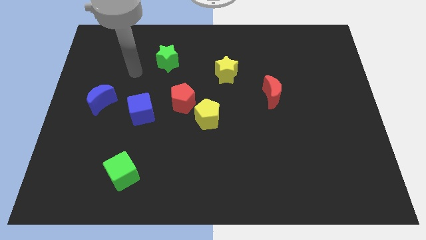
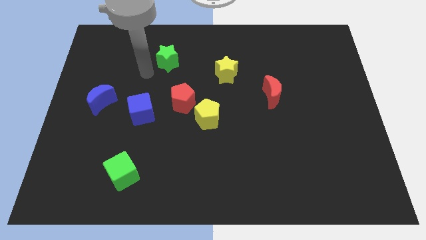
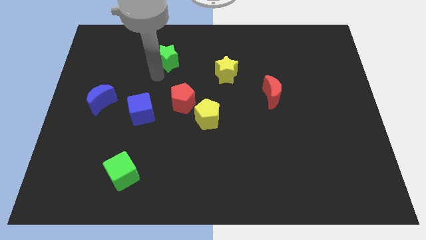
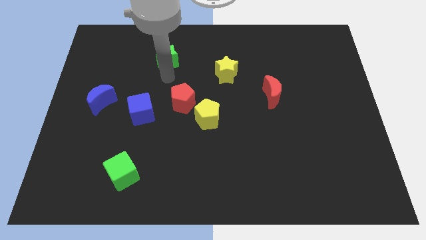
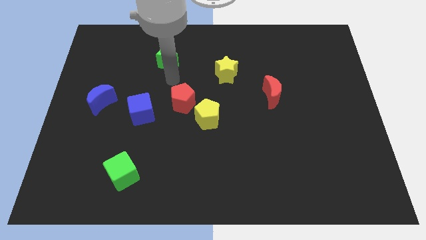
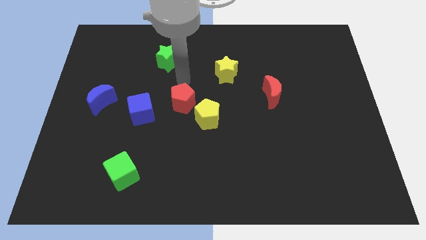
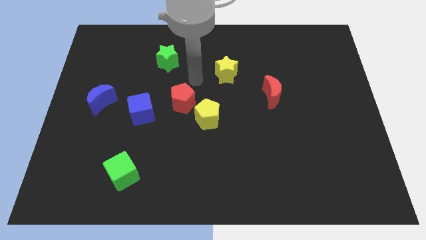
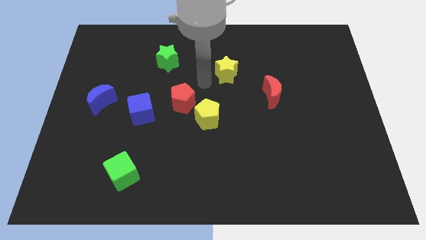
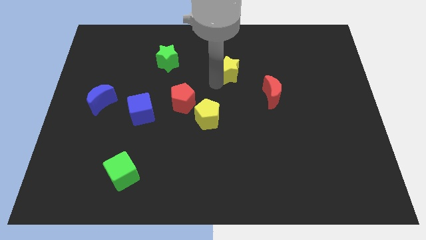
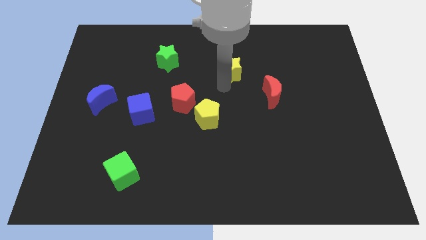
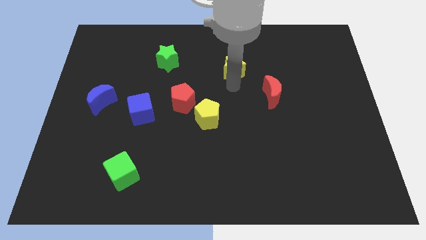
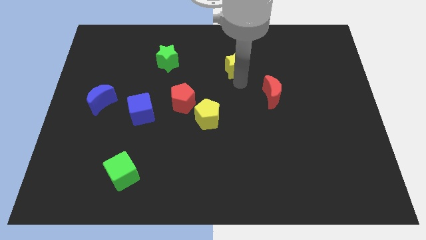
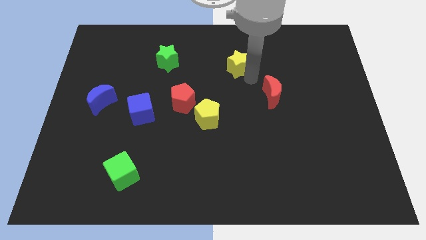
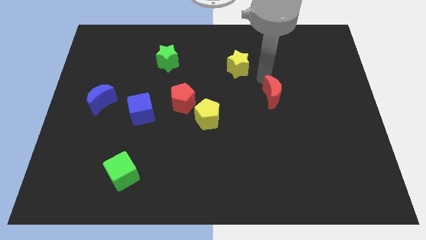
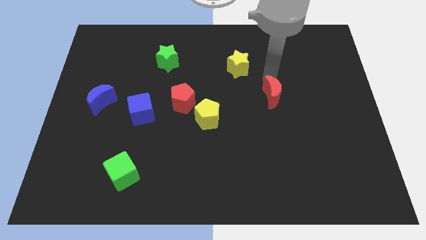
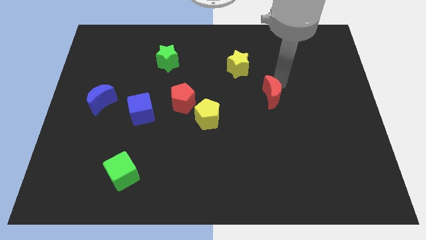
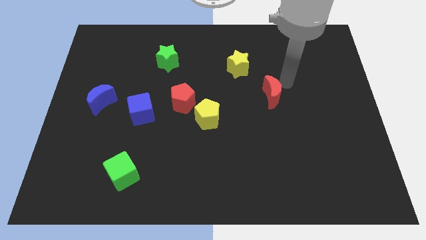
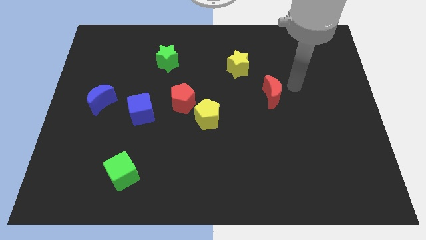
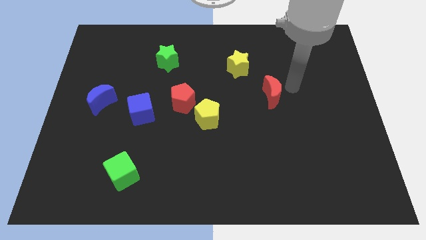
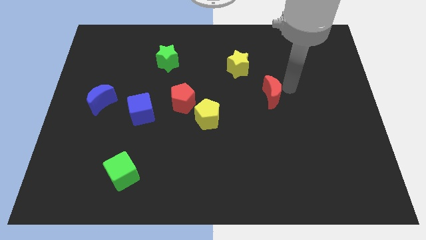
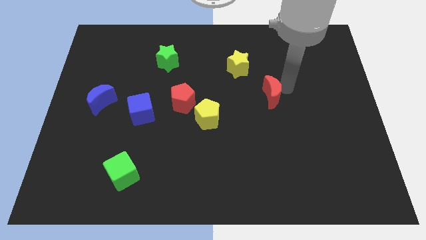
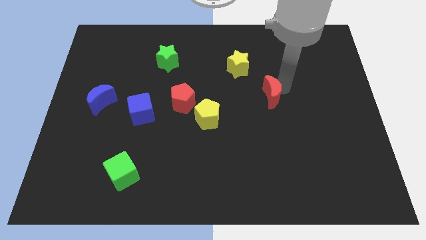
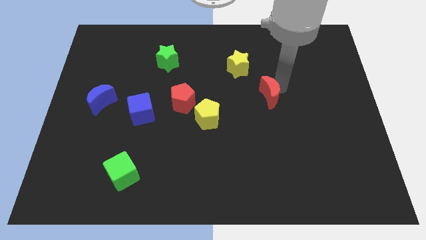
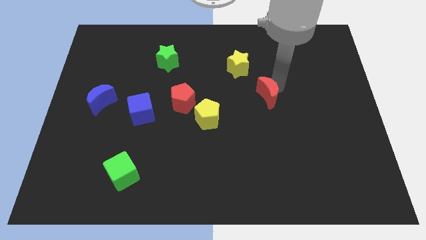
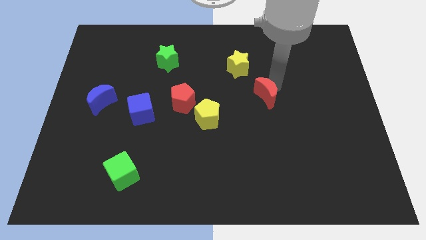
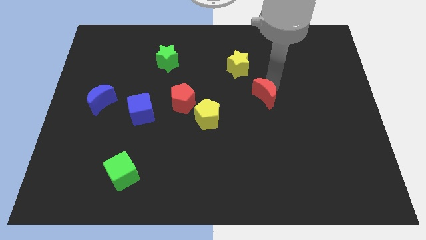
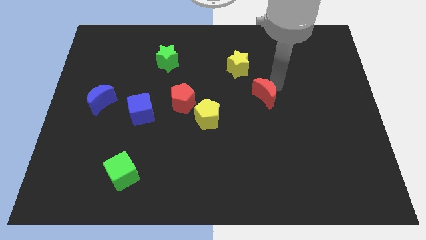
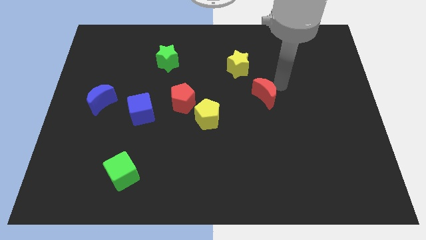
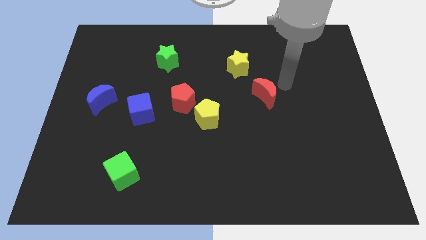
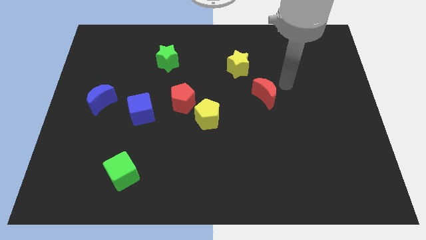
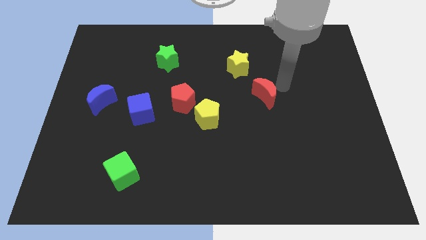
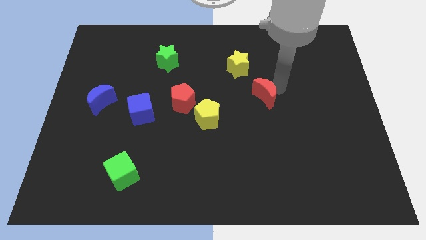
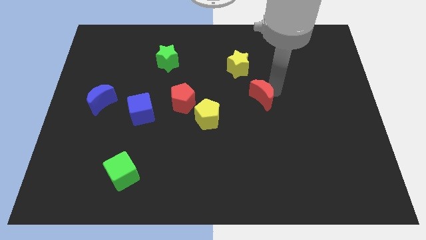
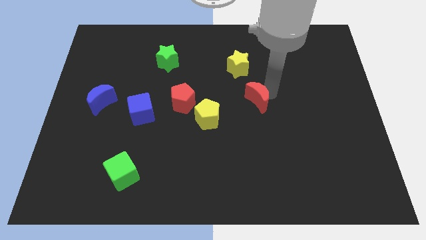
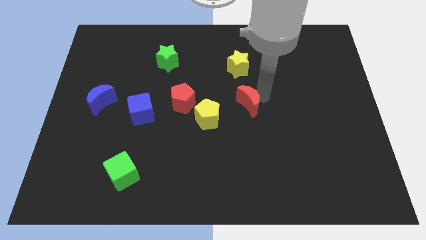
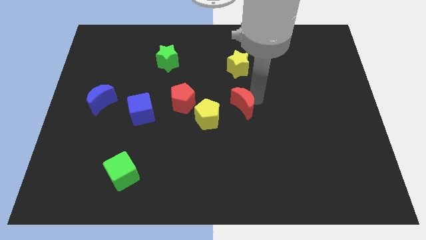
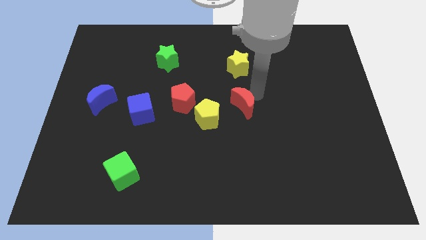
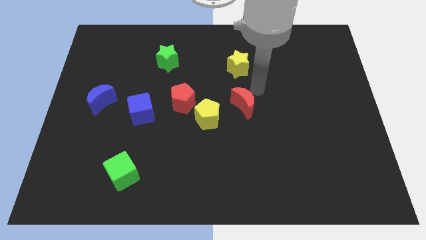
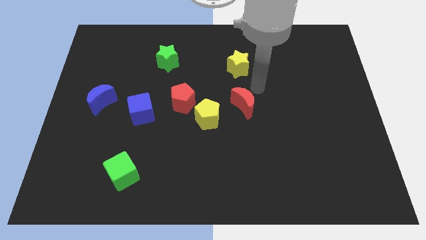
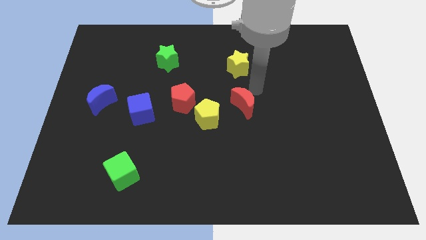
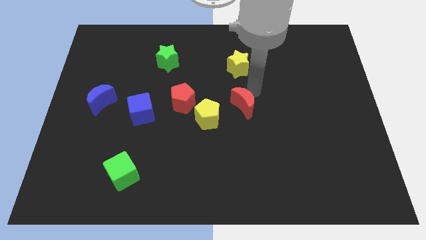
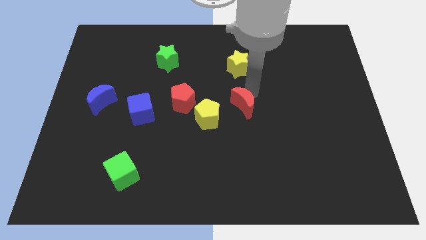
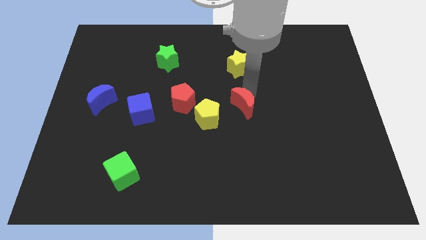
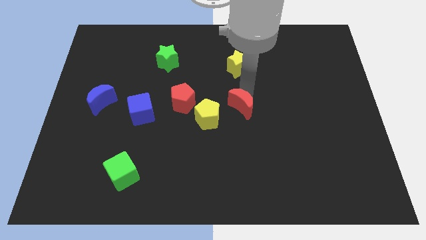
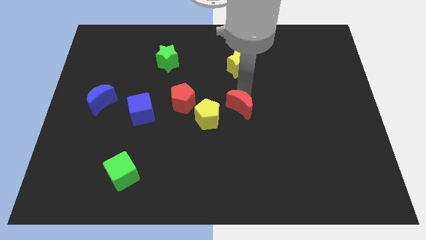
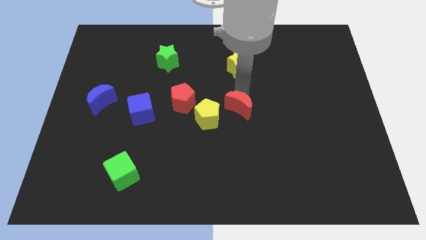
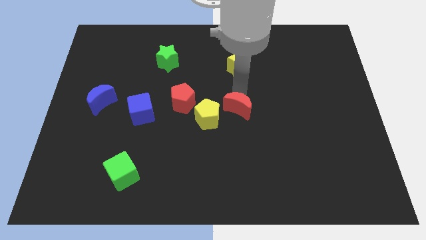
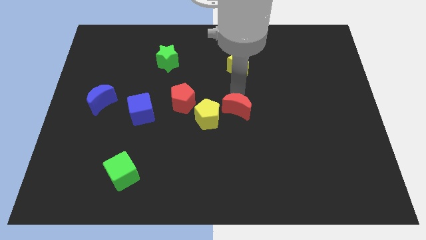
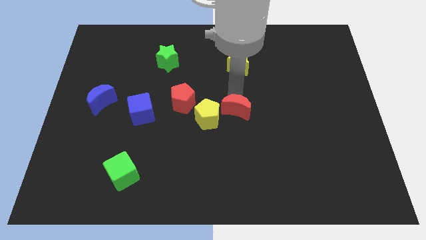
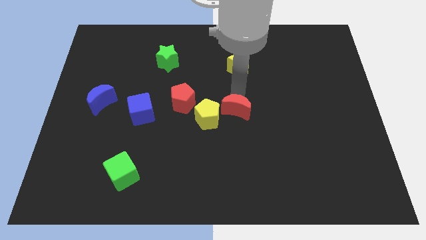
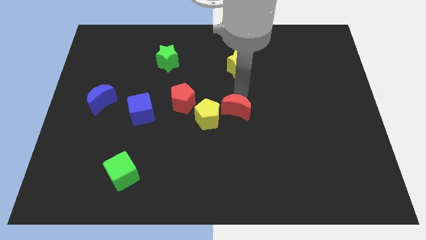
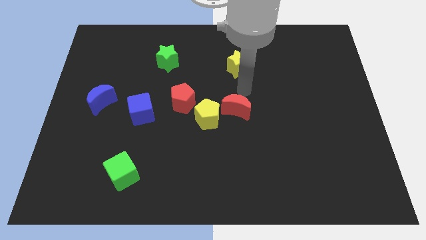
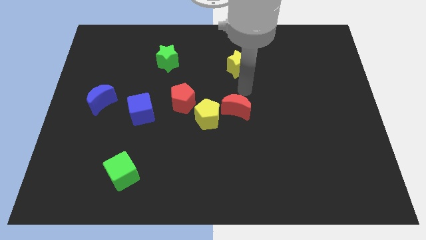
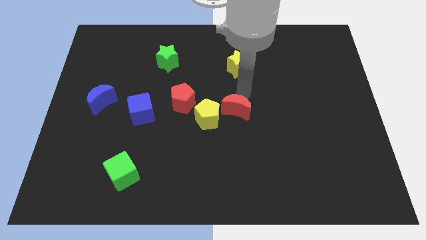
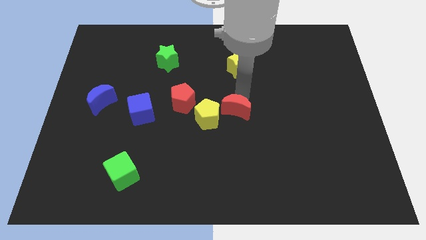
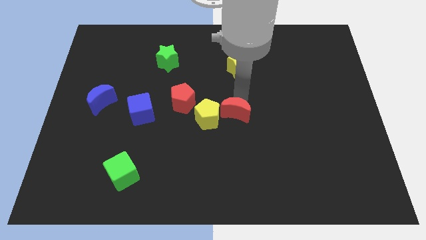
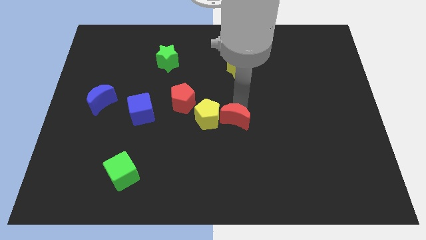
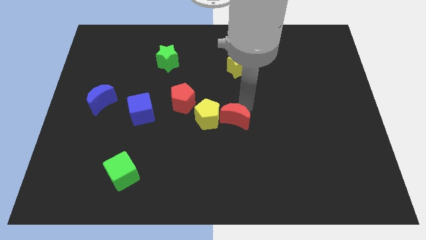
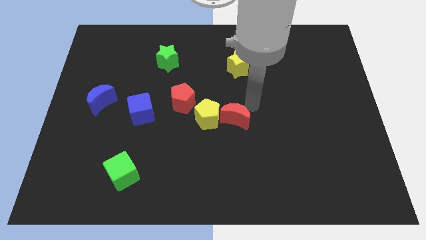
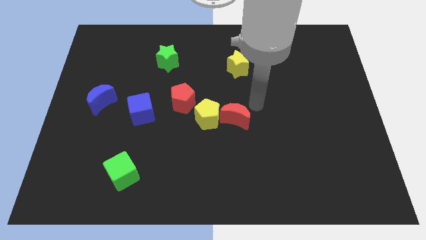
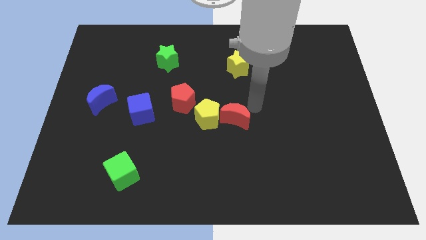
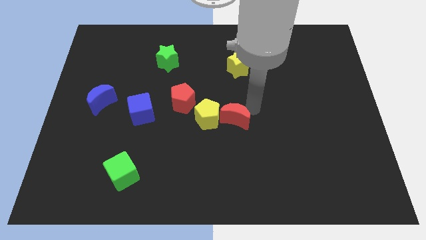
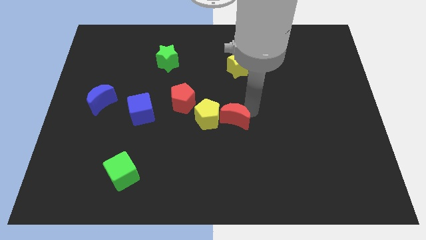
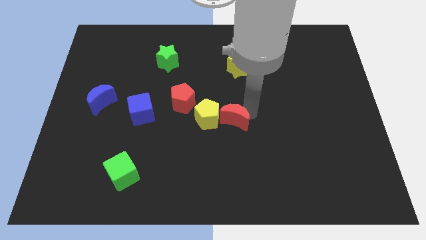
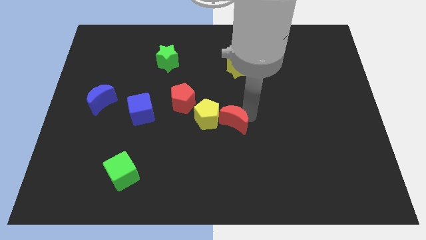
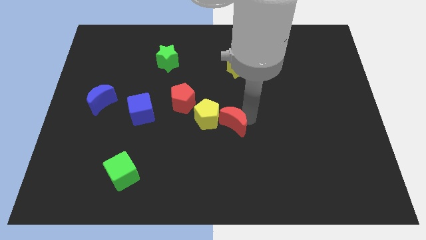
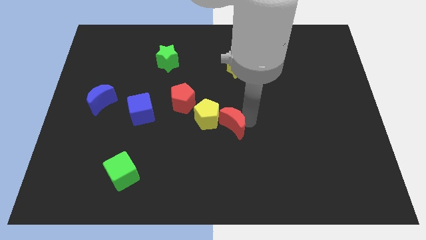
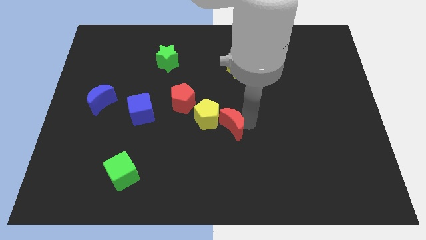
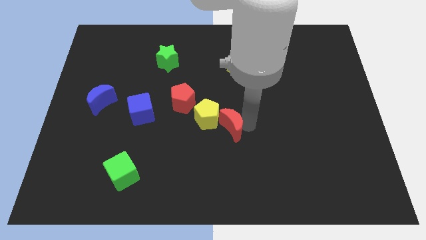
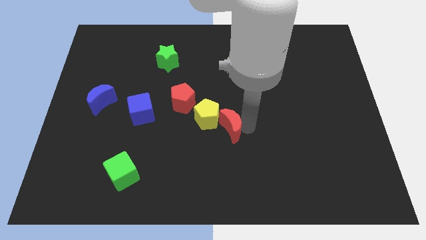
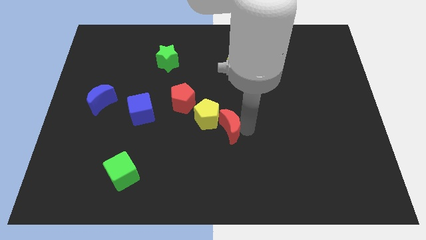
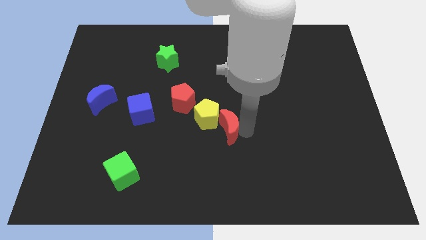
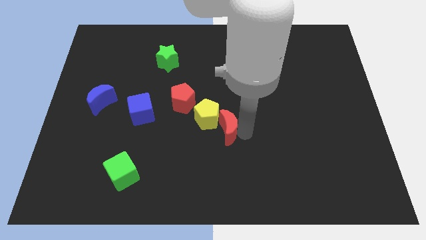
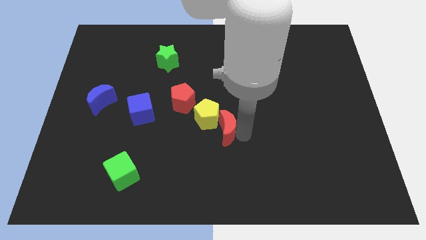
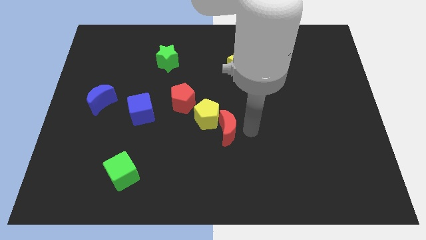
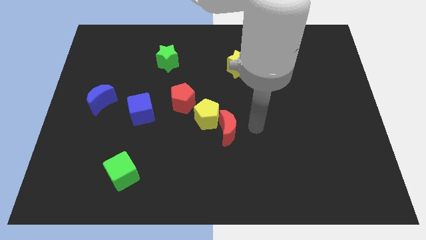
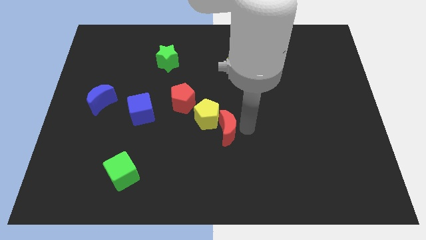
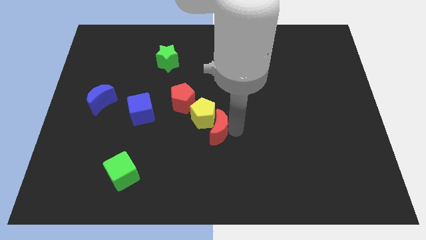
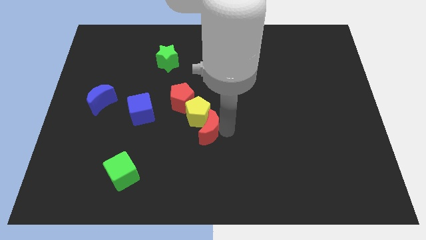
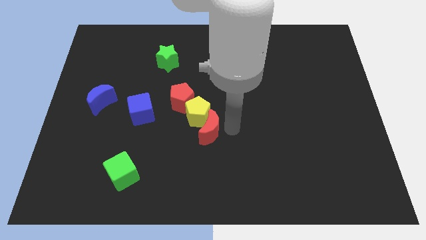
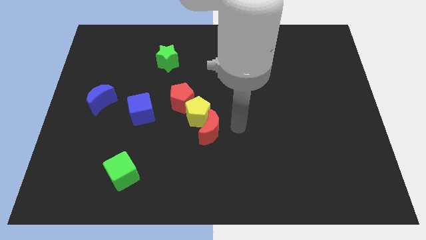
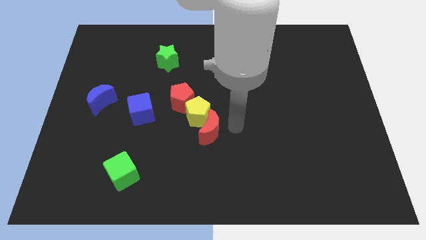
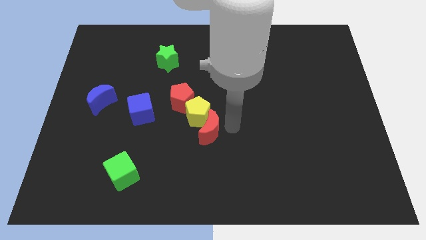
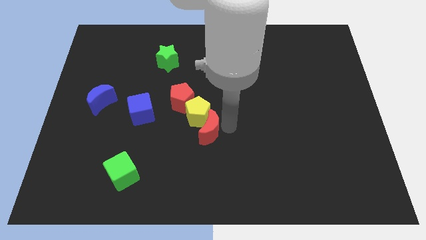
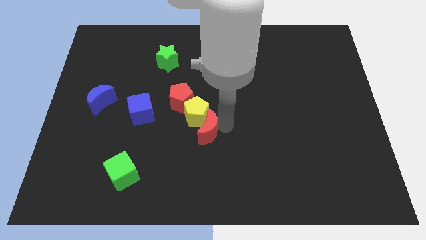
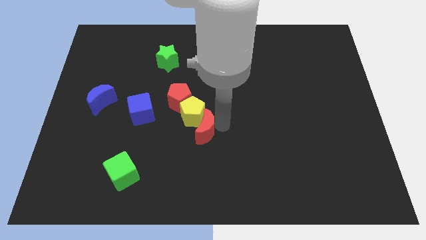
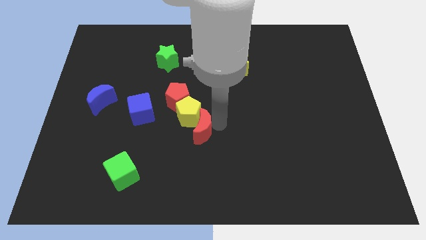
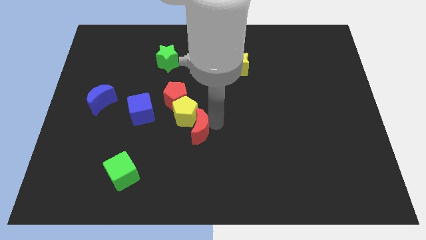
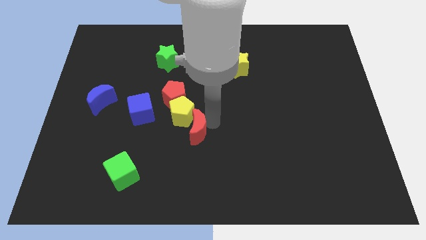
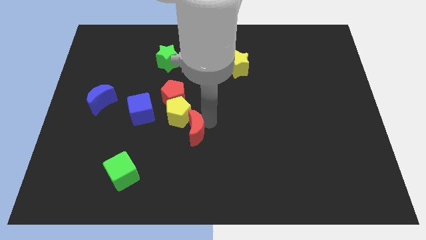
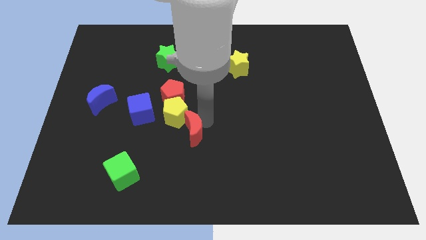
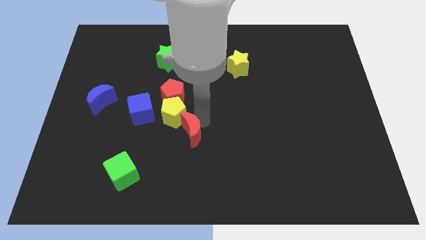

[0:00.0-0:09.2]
put the red moon to the bottom of the red pentagon
